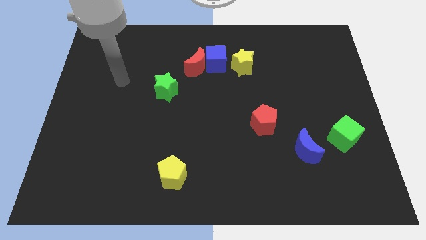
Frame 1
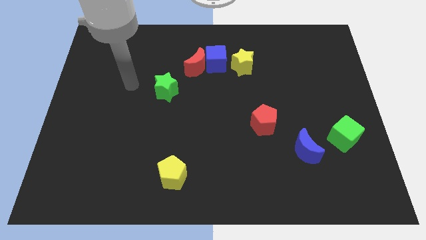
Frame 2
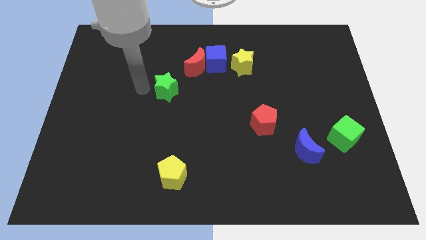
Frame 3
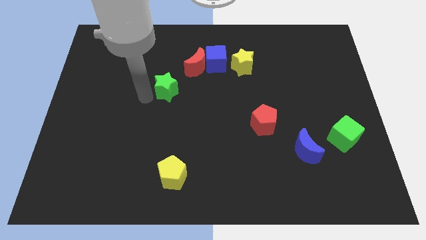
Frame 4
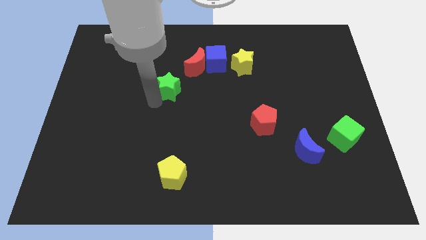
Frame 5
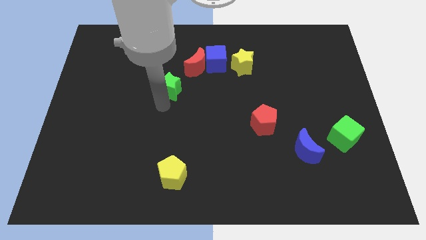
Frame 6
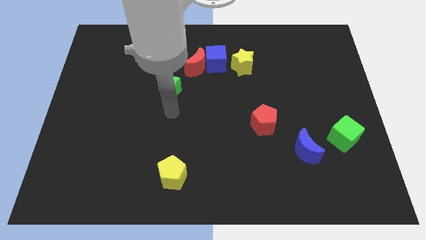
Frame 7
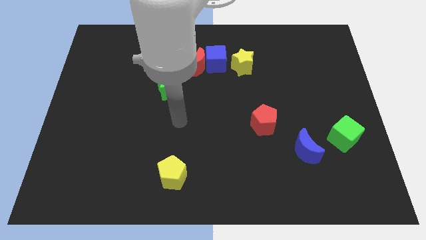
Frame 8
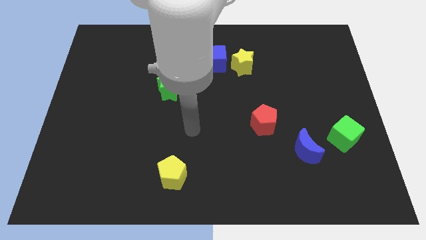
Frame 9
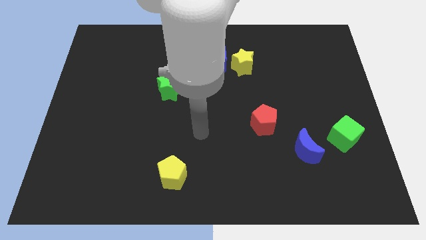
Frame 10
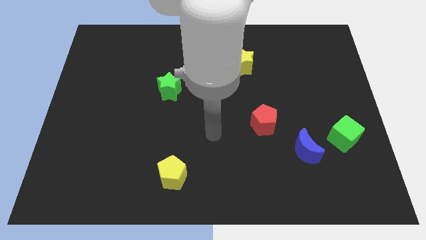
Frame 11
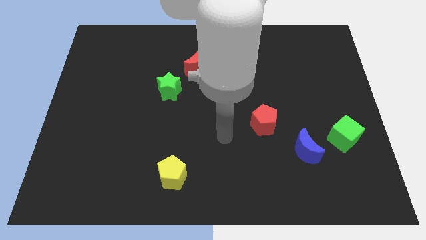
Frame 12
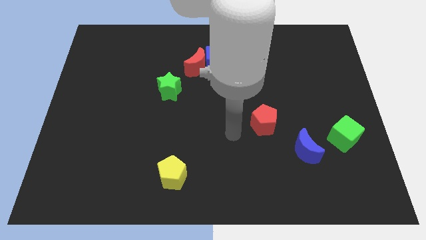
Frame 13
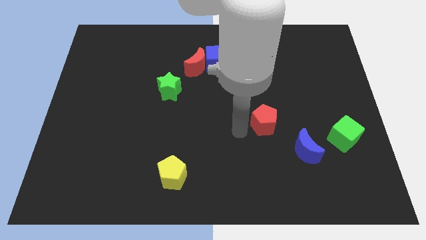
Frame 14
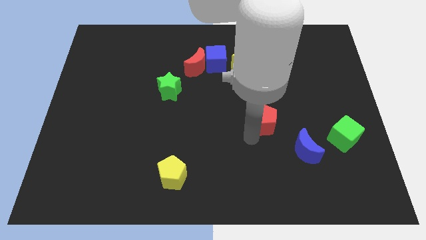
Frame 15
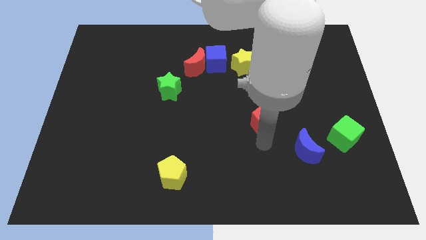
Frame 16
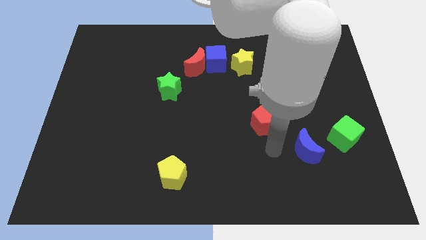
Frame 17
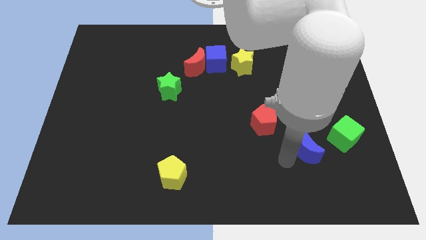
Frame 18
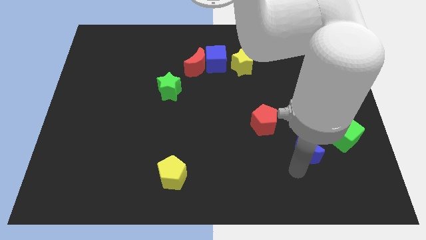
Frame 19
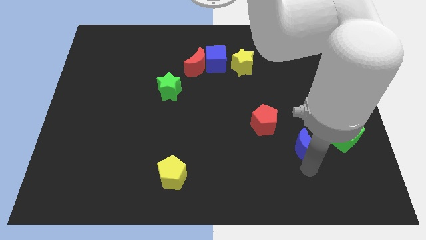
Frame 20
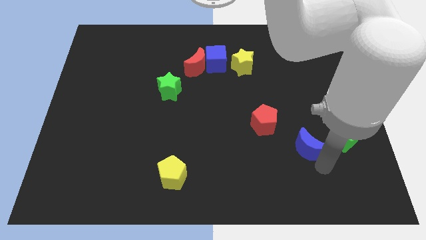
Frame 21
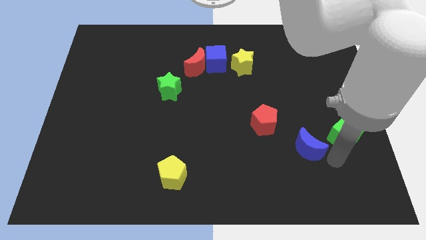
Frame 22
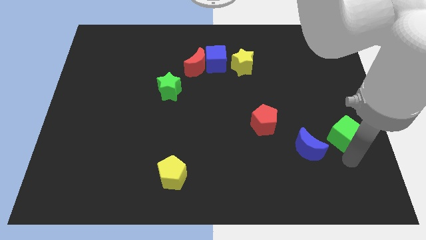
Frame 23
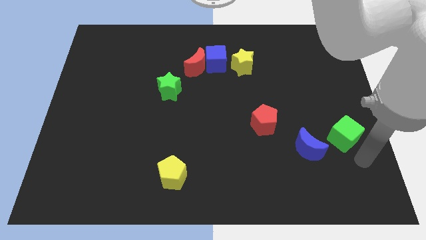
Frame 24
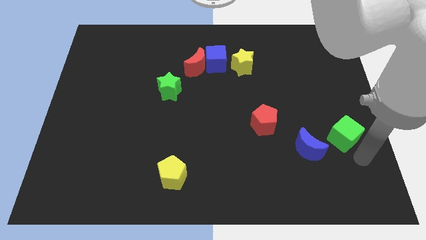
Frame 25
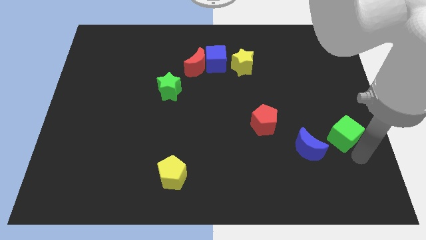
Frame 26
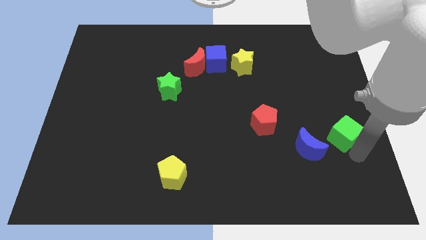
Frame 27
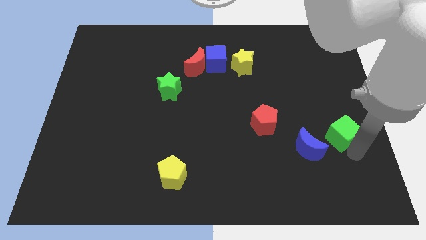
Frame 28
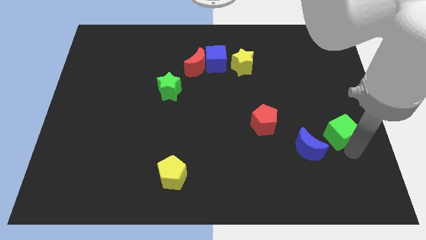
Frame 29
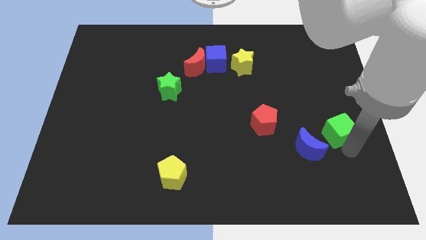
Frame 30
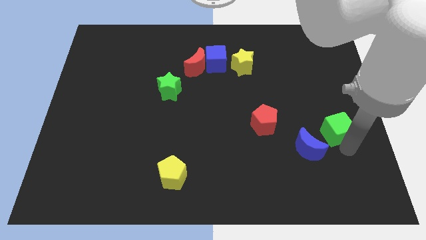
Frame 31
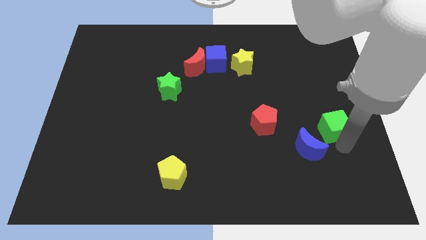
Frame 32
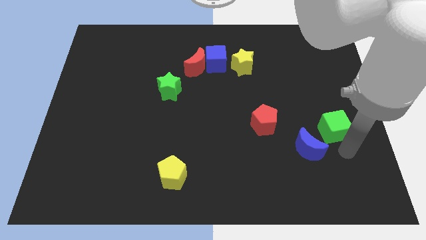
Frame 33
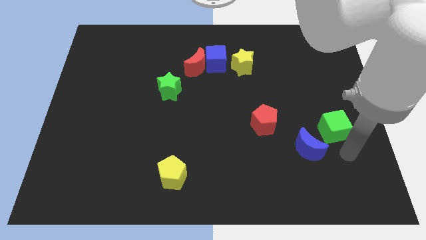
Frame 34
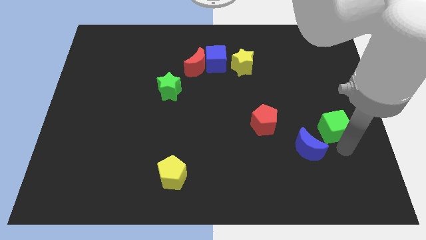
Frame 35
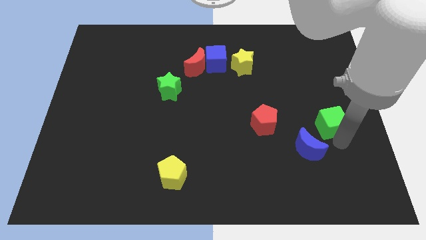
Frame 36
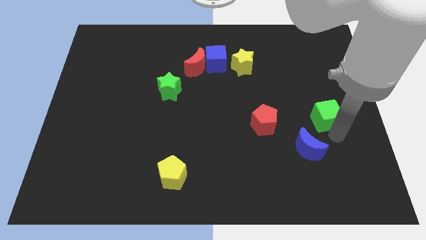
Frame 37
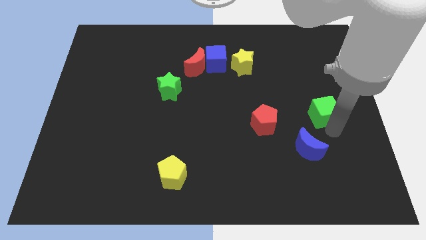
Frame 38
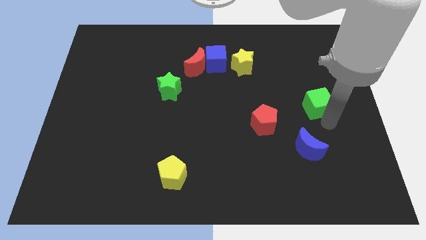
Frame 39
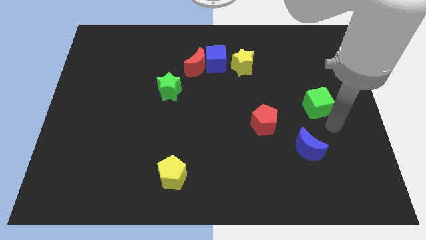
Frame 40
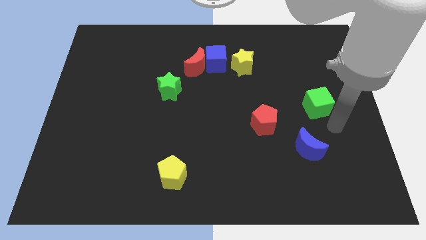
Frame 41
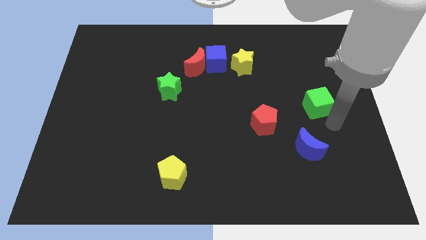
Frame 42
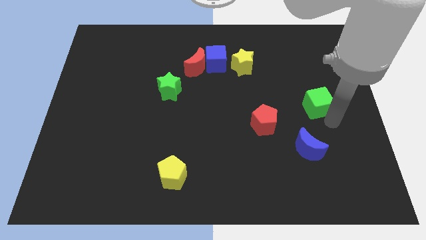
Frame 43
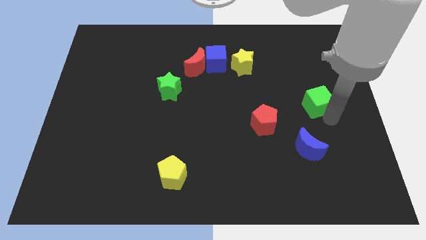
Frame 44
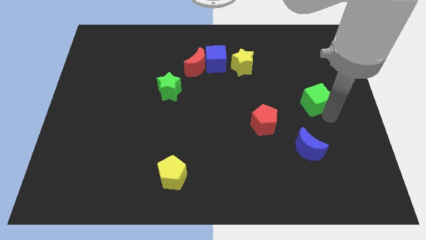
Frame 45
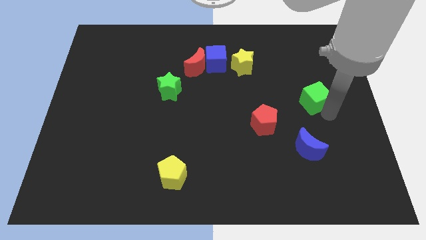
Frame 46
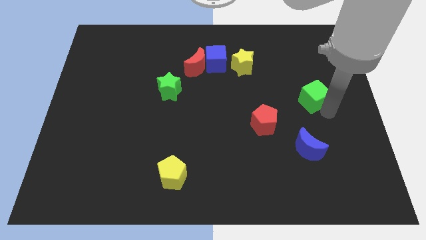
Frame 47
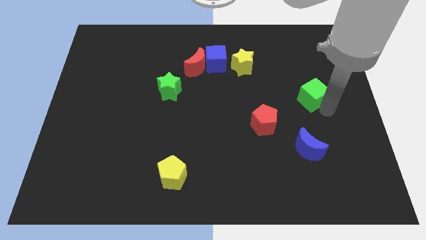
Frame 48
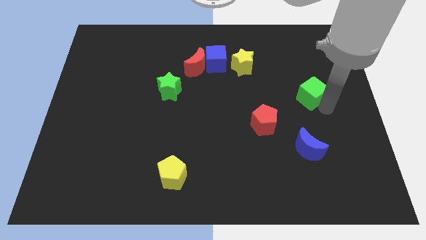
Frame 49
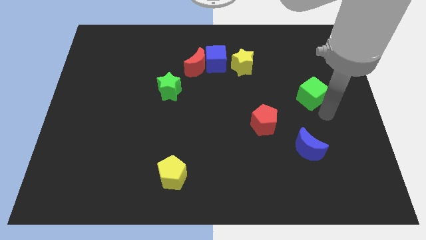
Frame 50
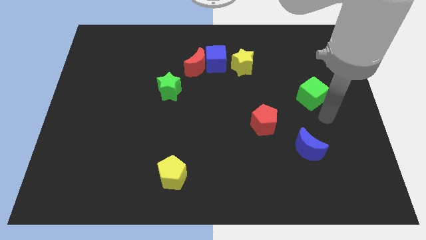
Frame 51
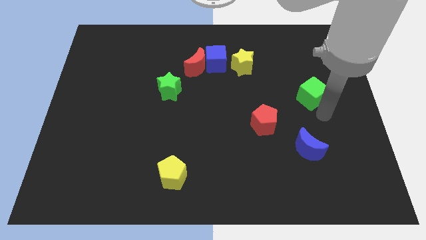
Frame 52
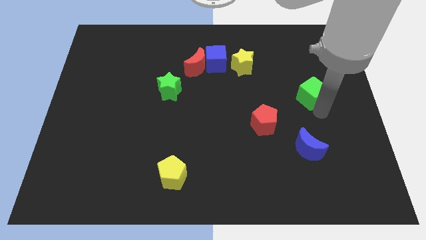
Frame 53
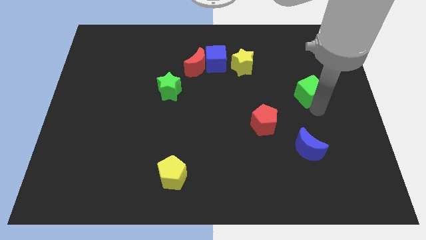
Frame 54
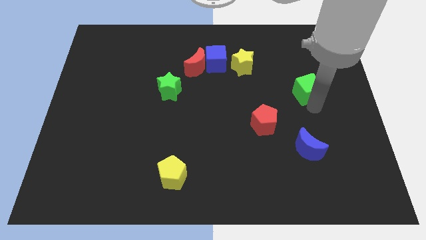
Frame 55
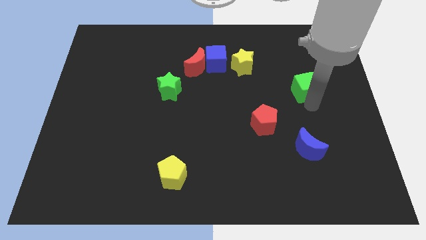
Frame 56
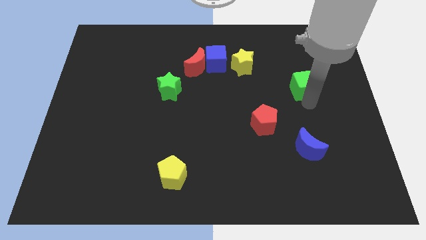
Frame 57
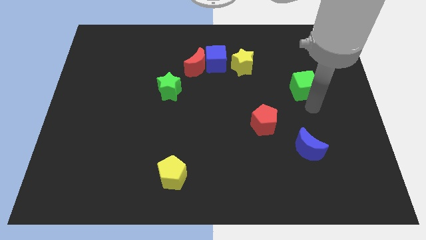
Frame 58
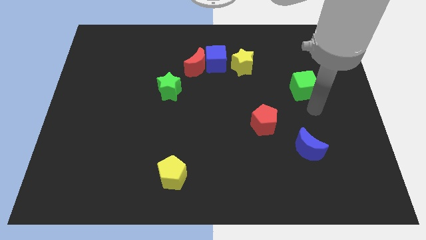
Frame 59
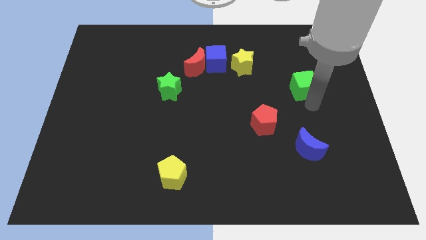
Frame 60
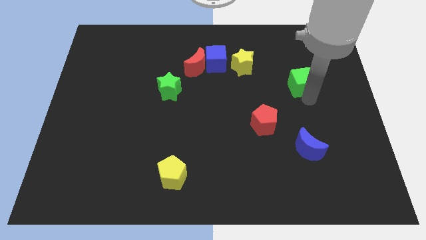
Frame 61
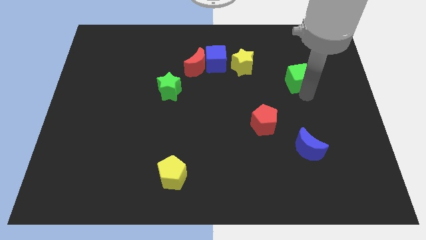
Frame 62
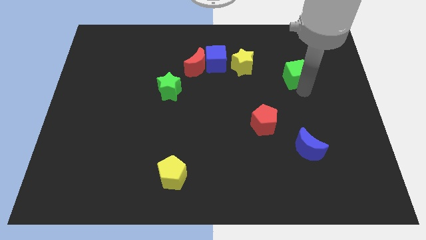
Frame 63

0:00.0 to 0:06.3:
slide the green cube to the right side of the yellow star

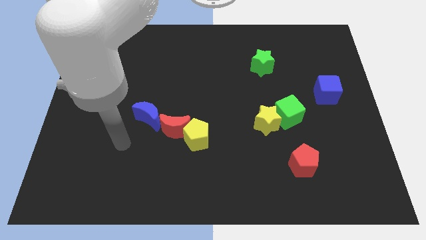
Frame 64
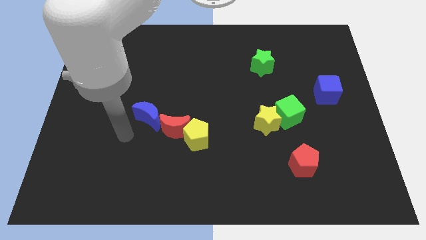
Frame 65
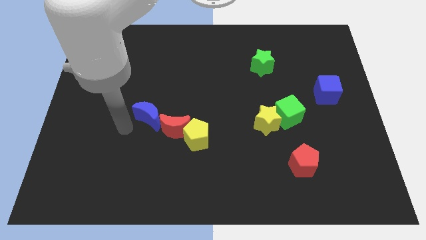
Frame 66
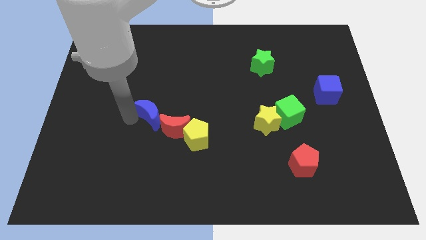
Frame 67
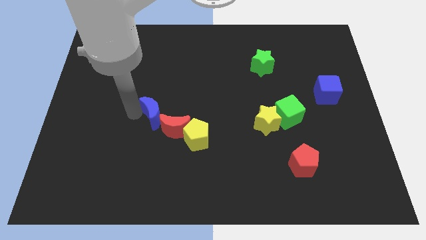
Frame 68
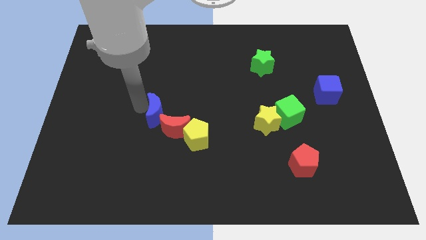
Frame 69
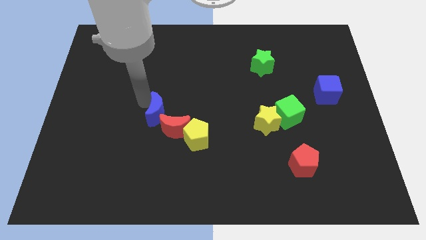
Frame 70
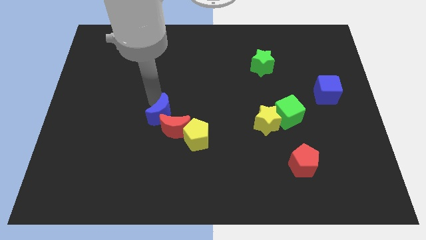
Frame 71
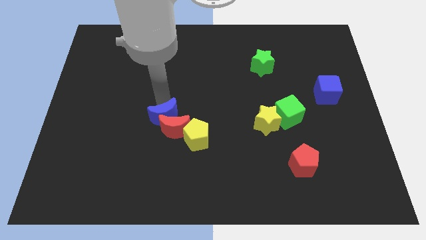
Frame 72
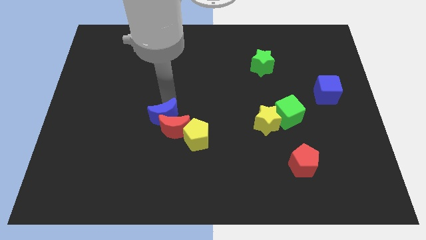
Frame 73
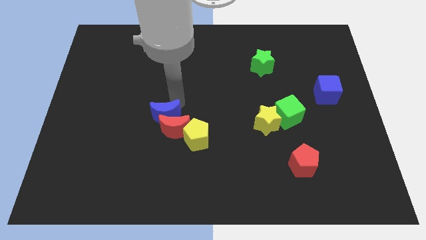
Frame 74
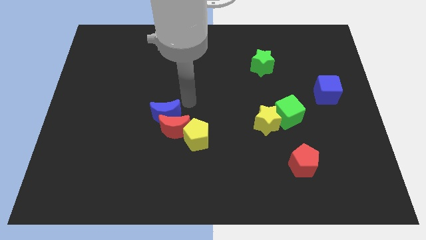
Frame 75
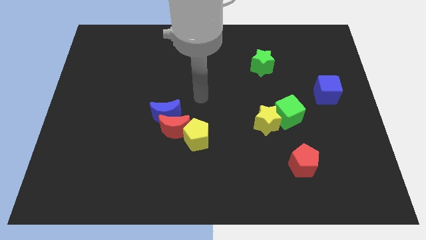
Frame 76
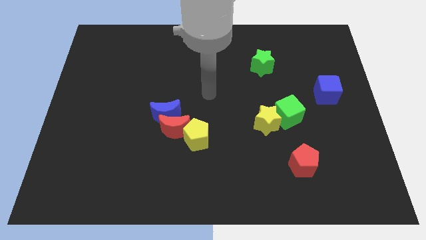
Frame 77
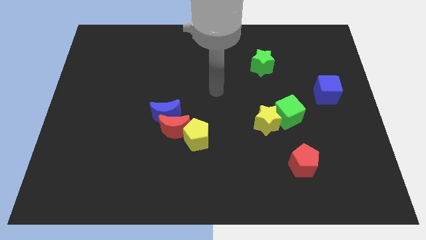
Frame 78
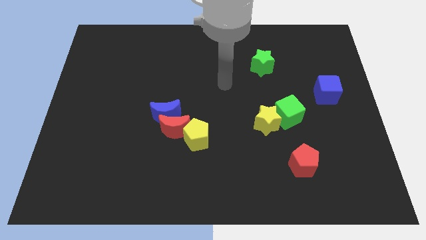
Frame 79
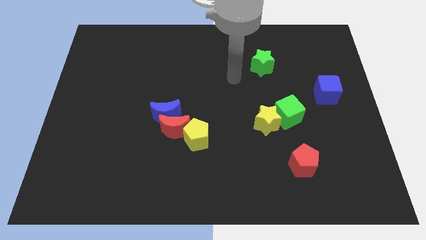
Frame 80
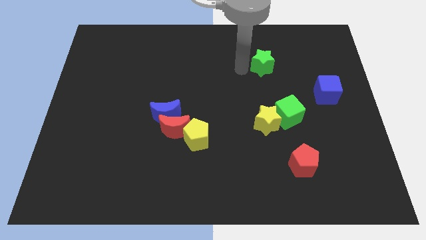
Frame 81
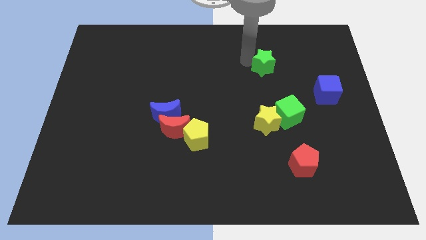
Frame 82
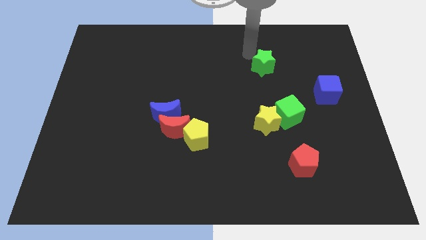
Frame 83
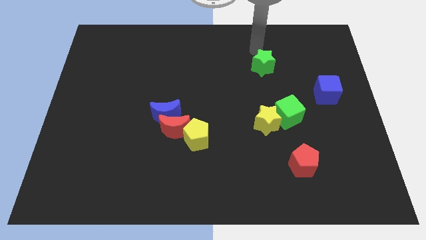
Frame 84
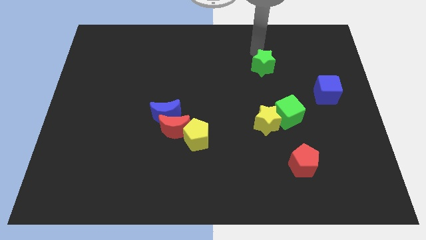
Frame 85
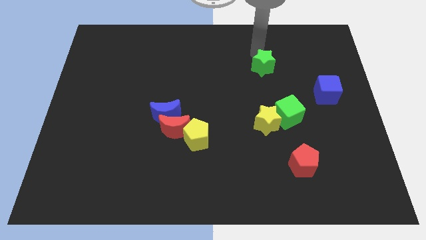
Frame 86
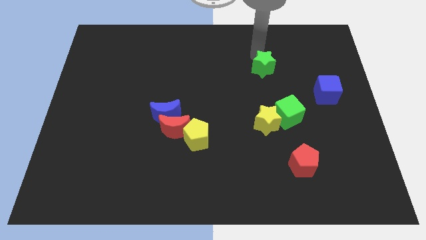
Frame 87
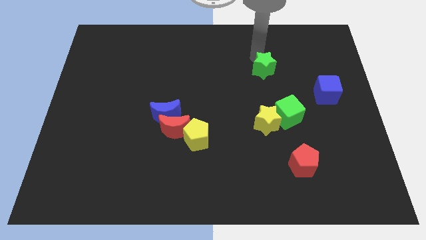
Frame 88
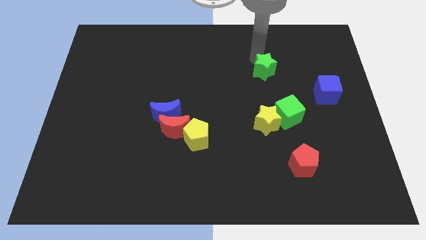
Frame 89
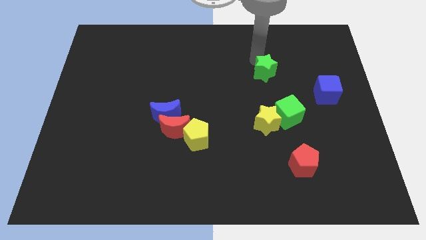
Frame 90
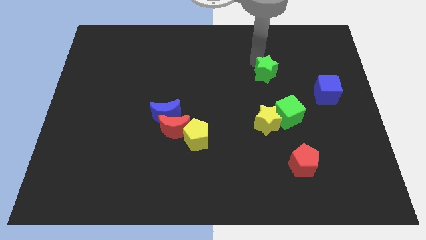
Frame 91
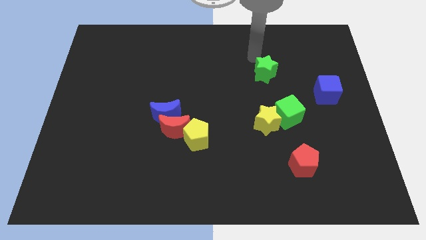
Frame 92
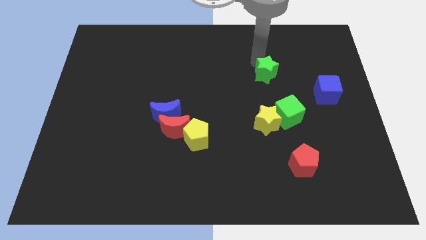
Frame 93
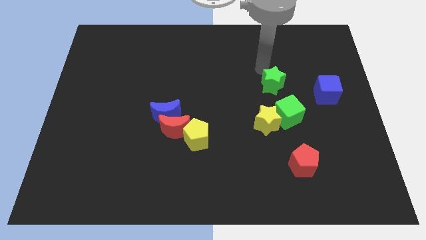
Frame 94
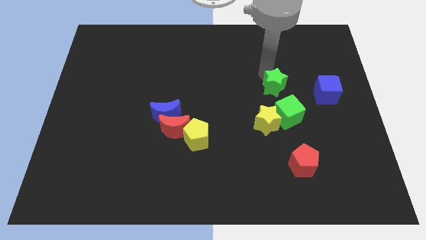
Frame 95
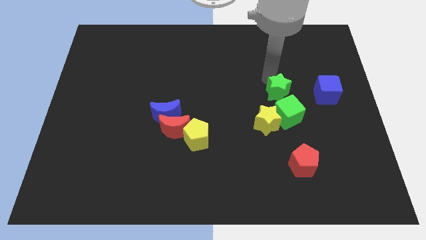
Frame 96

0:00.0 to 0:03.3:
slide the green star to the top right side of the yellow star
